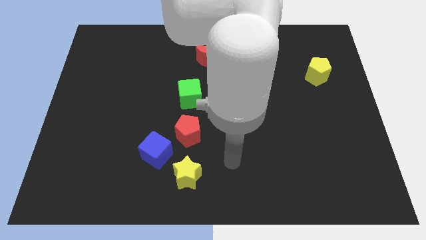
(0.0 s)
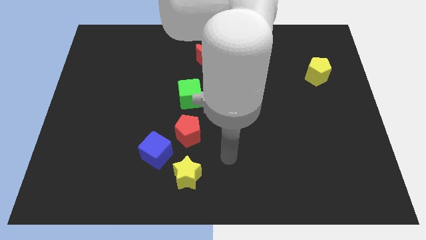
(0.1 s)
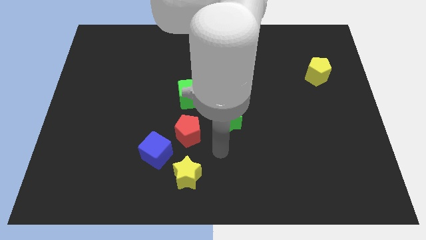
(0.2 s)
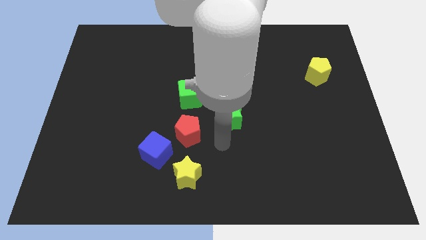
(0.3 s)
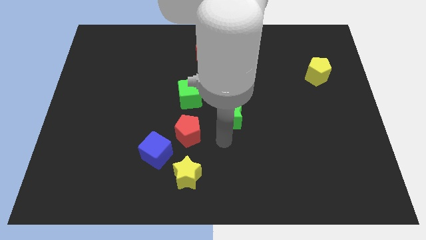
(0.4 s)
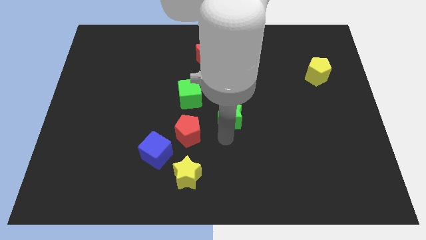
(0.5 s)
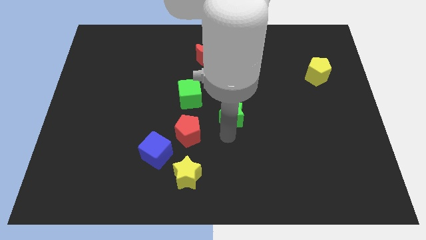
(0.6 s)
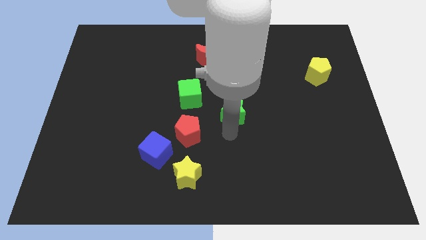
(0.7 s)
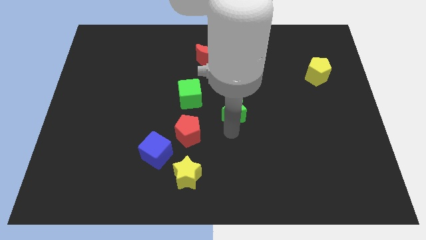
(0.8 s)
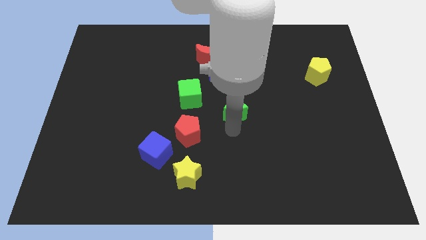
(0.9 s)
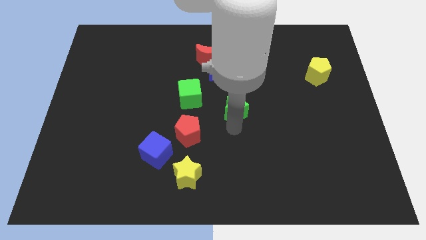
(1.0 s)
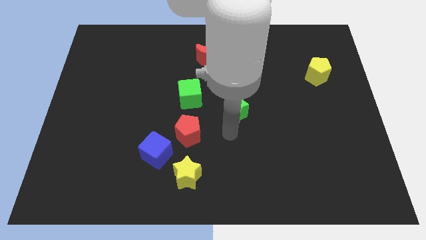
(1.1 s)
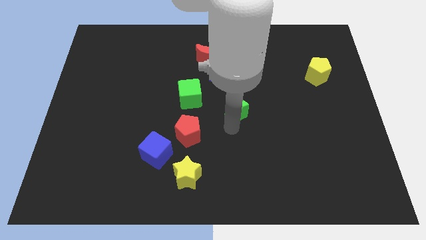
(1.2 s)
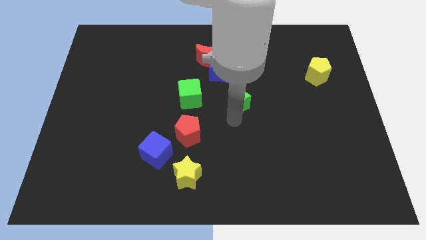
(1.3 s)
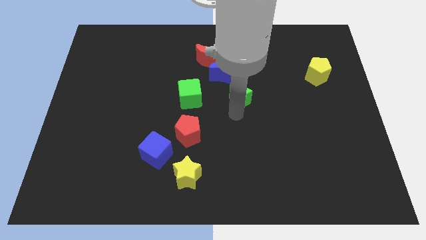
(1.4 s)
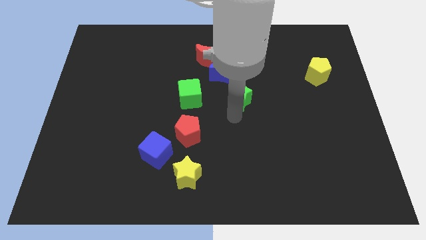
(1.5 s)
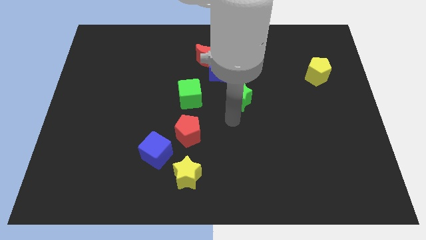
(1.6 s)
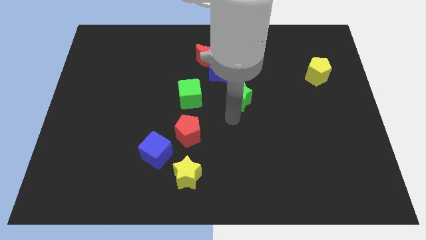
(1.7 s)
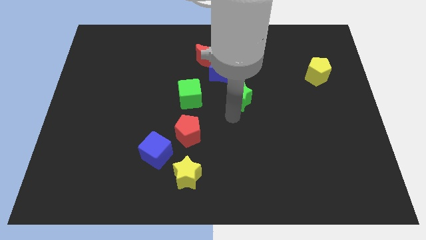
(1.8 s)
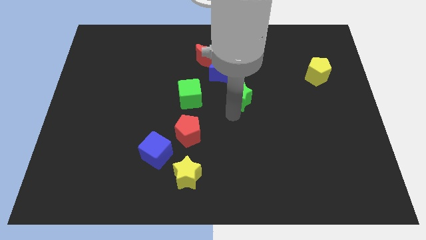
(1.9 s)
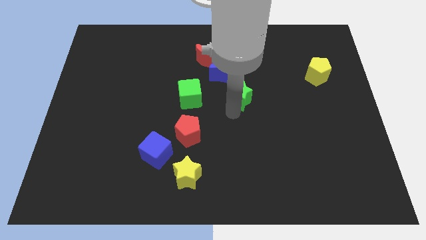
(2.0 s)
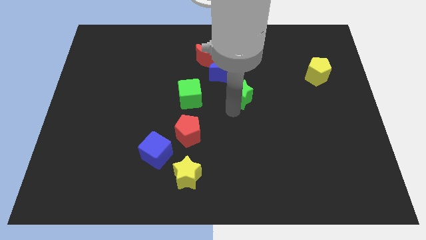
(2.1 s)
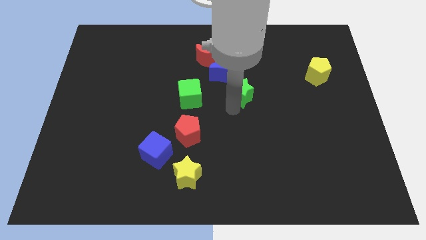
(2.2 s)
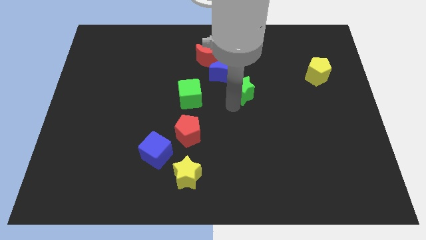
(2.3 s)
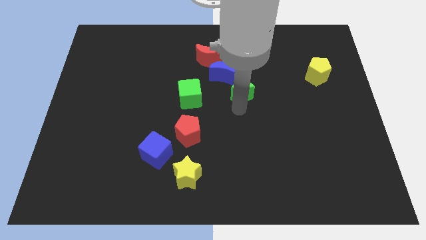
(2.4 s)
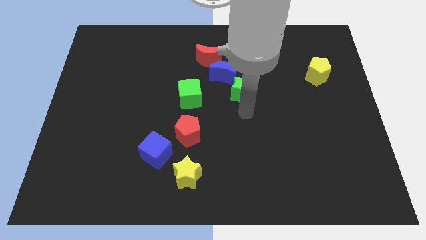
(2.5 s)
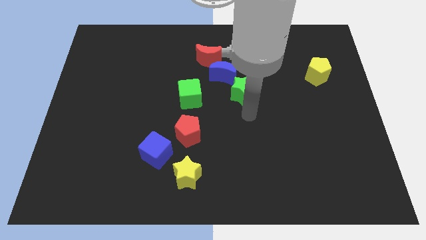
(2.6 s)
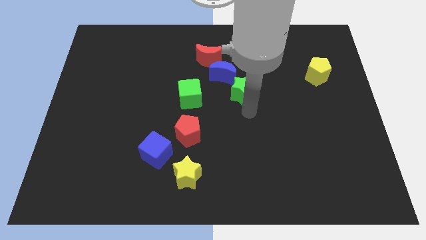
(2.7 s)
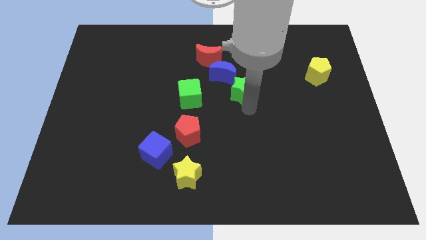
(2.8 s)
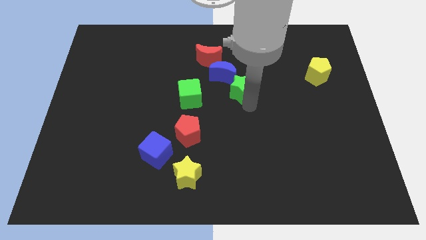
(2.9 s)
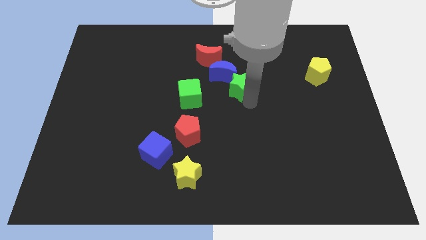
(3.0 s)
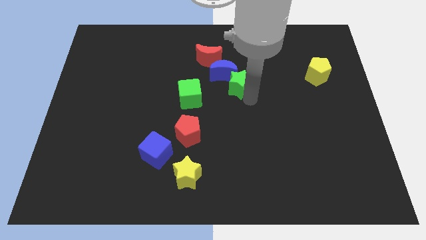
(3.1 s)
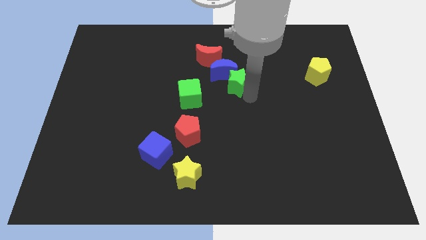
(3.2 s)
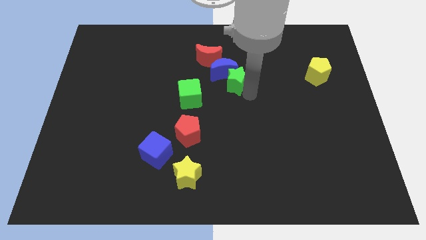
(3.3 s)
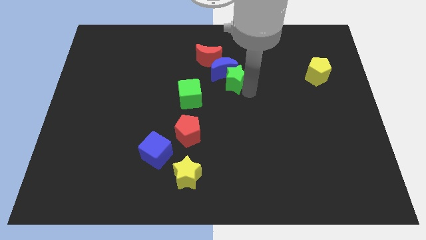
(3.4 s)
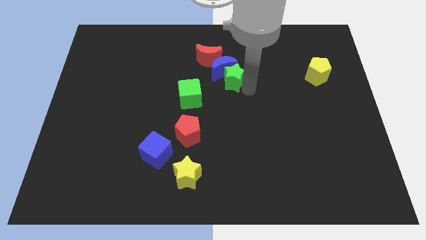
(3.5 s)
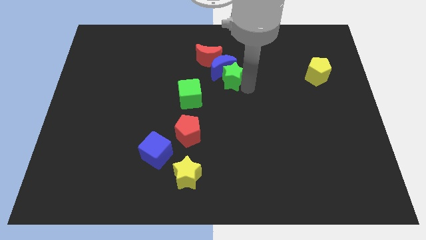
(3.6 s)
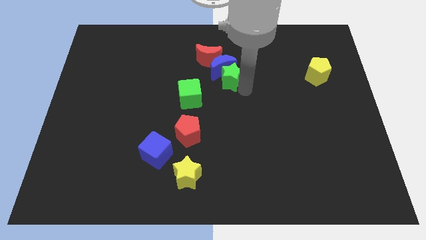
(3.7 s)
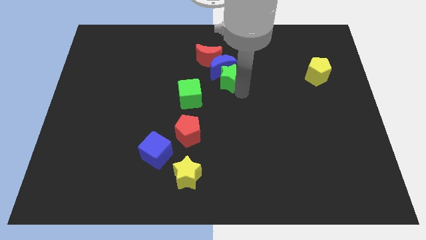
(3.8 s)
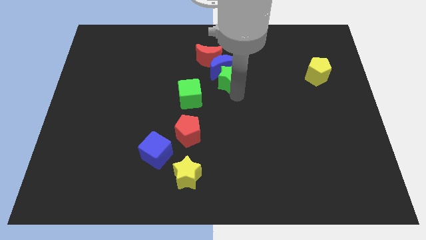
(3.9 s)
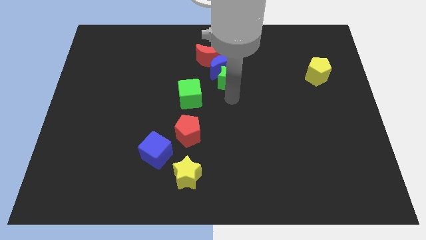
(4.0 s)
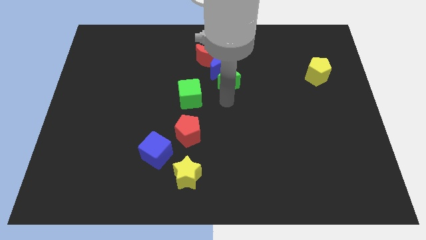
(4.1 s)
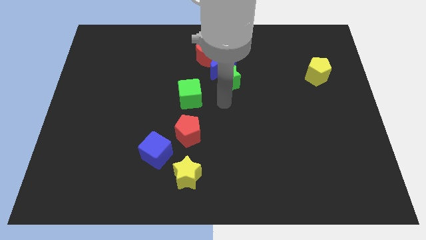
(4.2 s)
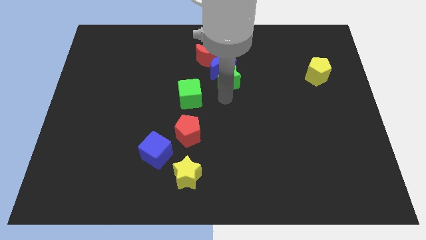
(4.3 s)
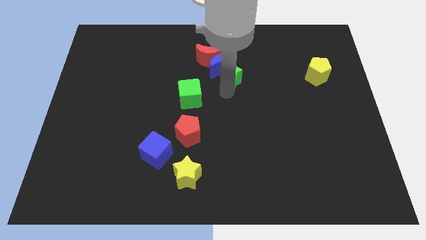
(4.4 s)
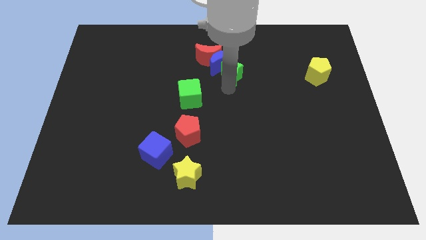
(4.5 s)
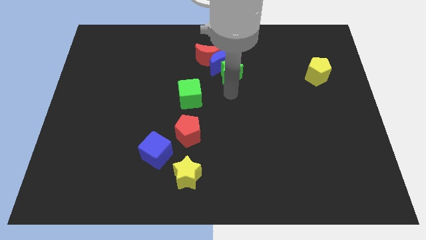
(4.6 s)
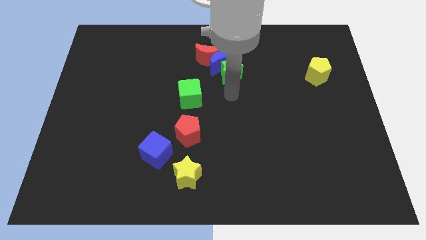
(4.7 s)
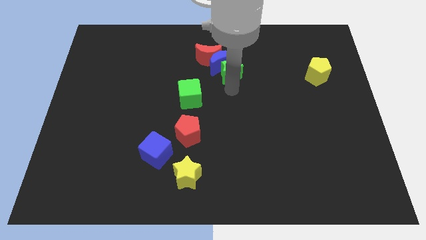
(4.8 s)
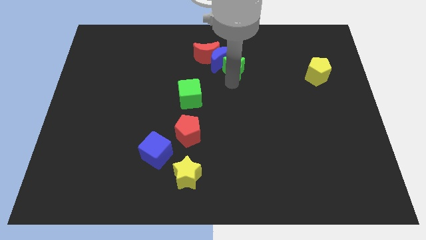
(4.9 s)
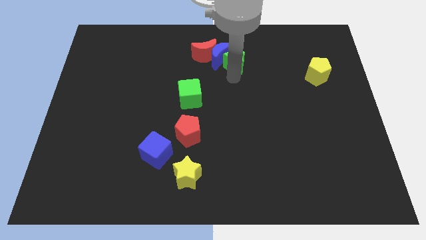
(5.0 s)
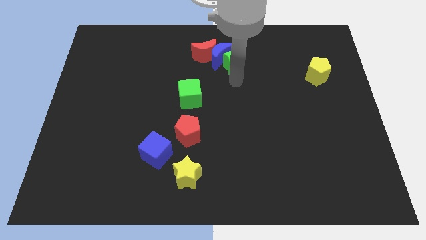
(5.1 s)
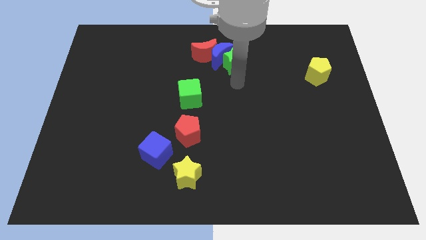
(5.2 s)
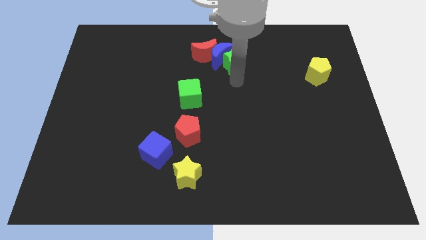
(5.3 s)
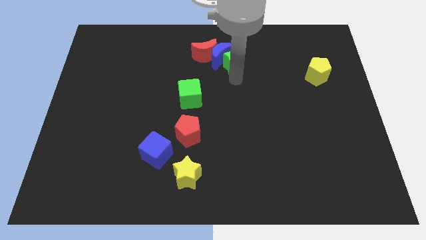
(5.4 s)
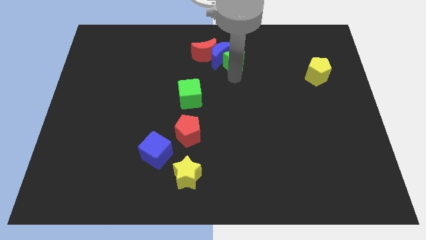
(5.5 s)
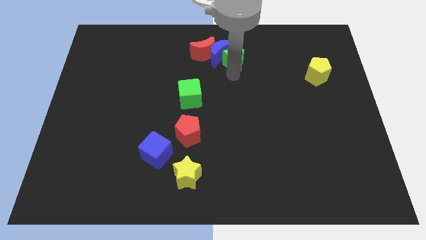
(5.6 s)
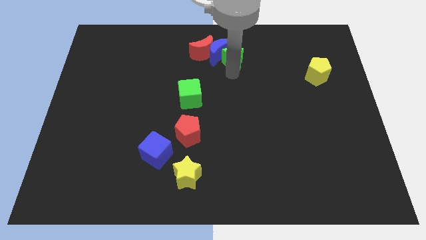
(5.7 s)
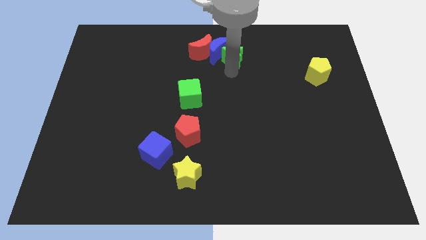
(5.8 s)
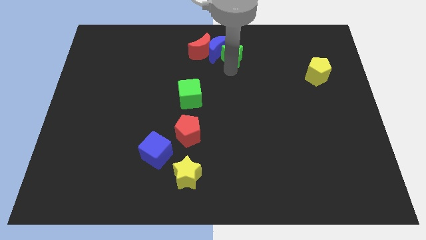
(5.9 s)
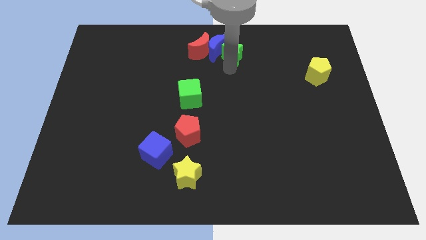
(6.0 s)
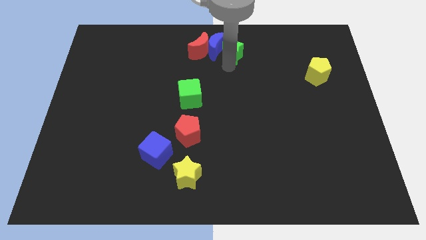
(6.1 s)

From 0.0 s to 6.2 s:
put the green star to the top side
